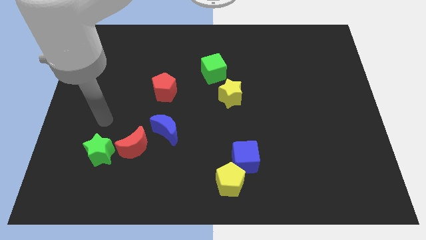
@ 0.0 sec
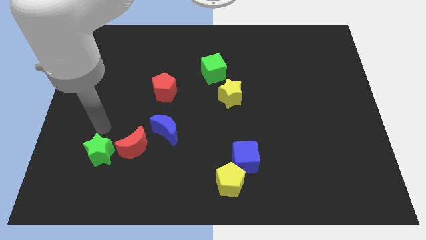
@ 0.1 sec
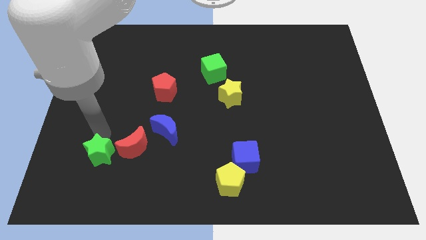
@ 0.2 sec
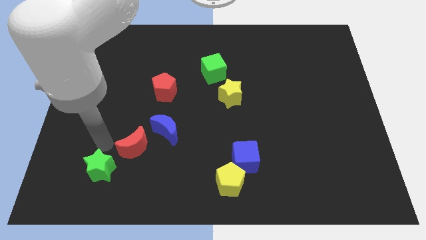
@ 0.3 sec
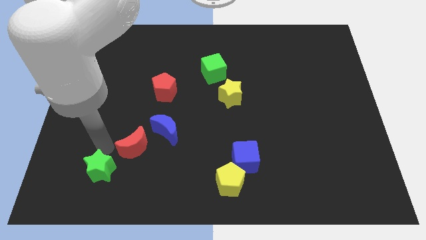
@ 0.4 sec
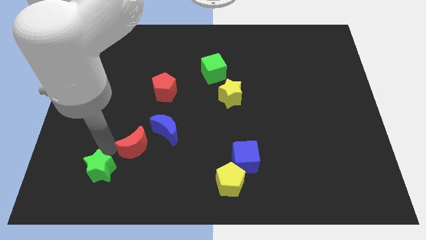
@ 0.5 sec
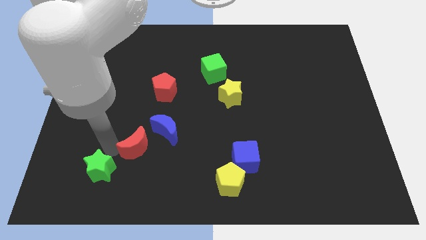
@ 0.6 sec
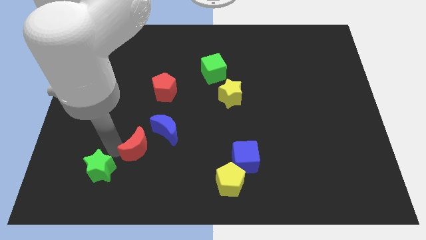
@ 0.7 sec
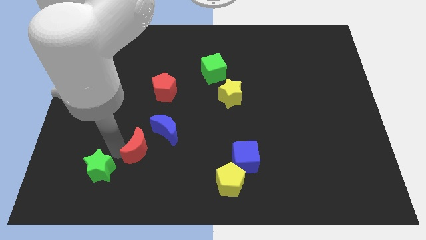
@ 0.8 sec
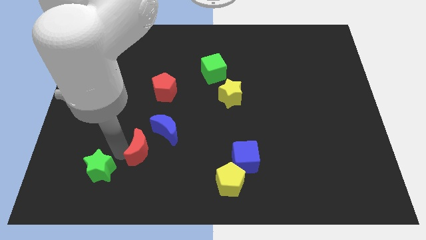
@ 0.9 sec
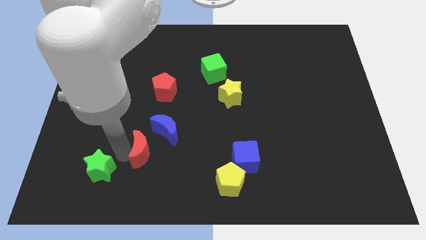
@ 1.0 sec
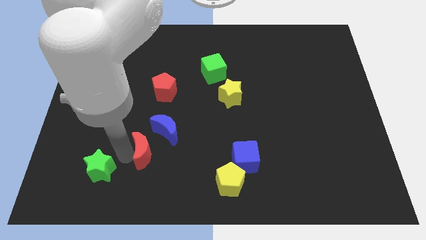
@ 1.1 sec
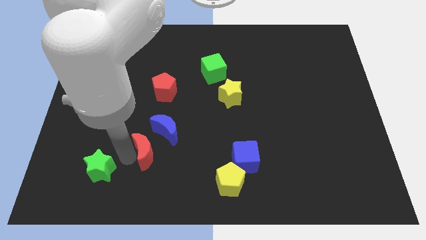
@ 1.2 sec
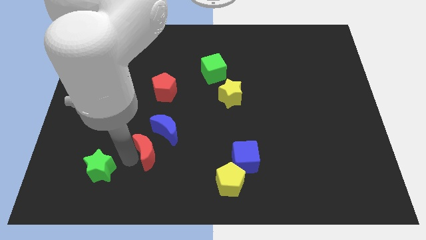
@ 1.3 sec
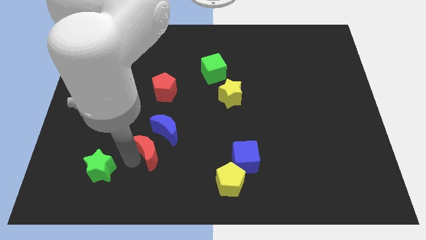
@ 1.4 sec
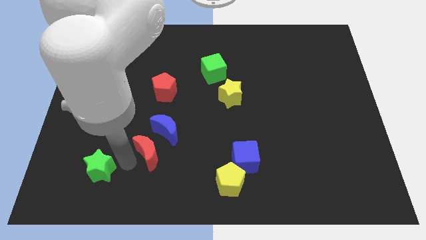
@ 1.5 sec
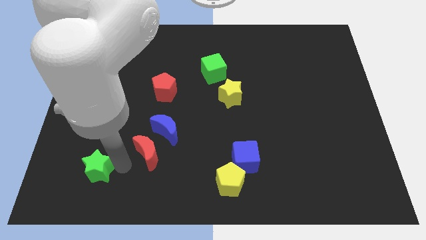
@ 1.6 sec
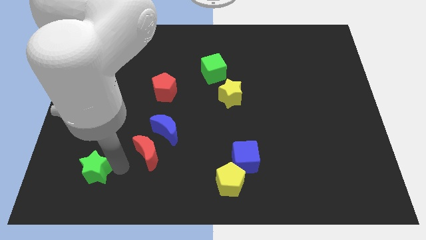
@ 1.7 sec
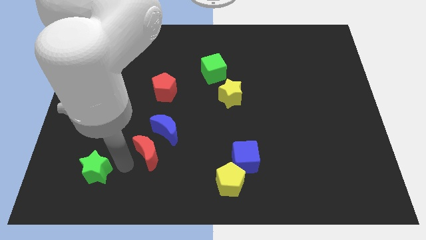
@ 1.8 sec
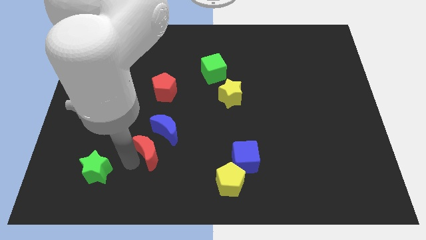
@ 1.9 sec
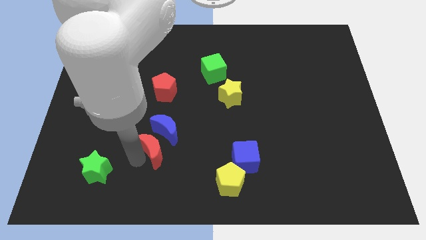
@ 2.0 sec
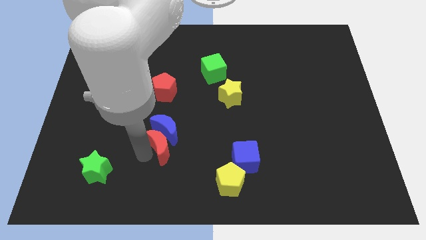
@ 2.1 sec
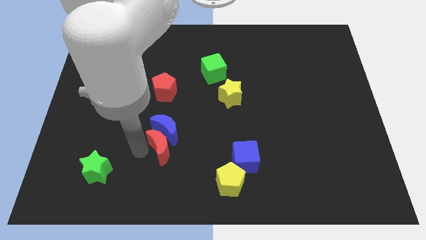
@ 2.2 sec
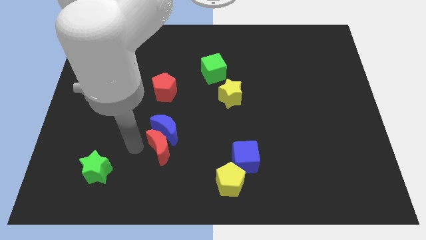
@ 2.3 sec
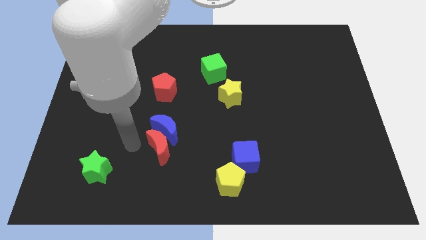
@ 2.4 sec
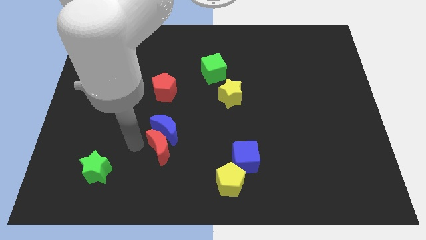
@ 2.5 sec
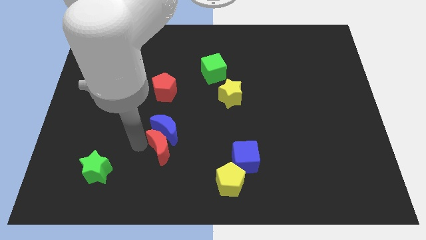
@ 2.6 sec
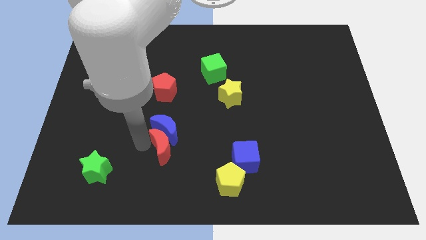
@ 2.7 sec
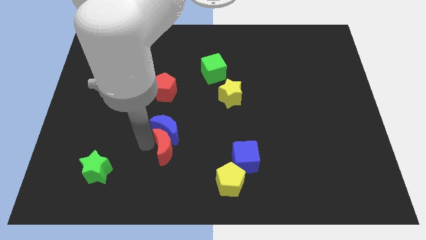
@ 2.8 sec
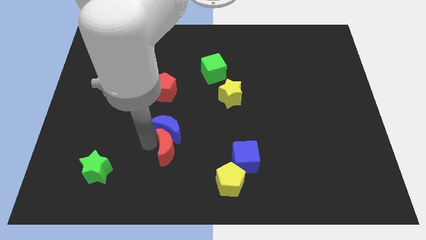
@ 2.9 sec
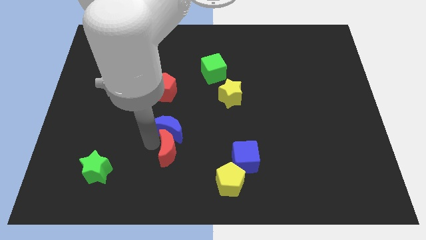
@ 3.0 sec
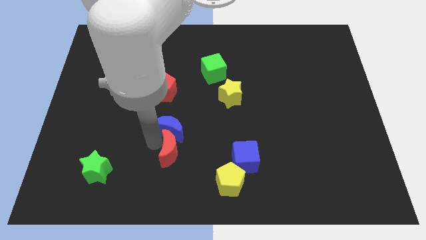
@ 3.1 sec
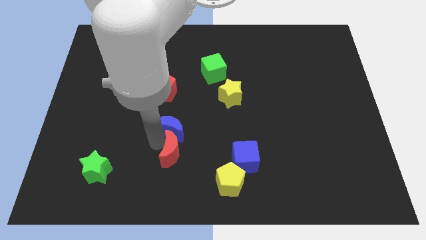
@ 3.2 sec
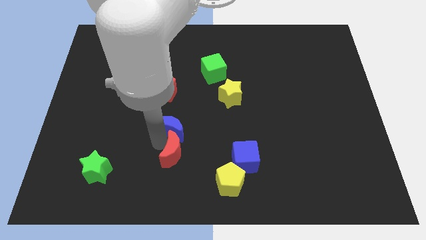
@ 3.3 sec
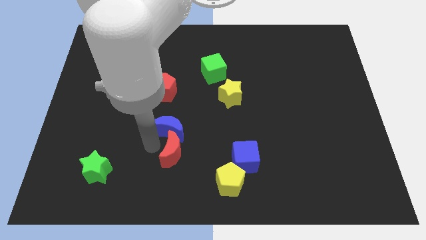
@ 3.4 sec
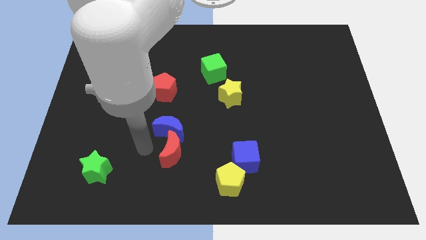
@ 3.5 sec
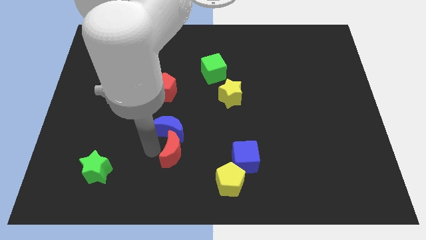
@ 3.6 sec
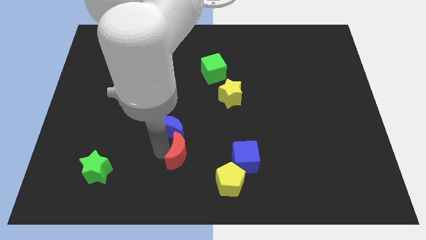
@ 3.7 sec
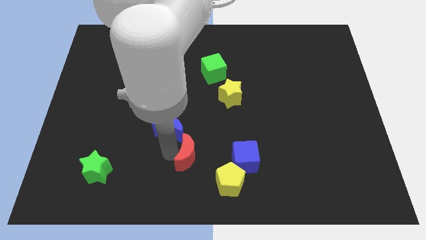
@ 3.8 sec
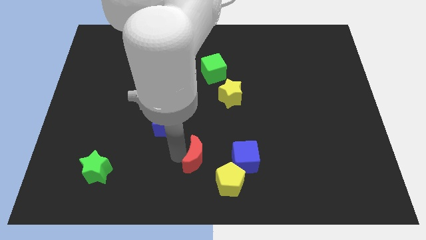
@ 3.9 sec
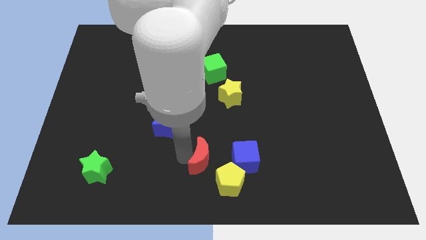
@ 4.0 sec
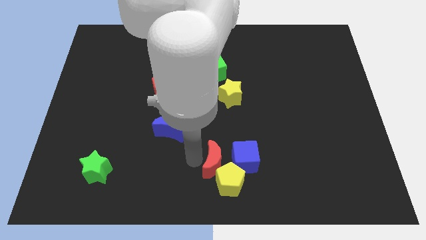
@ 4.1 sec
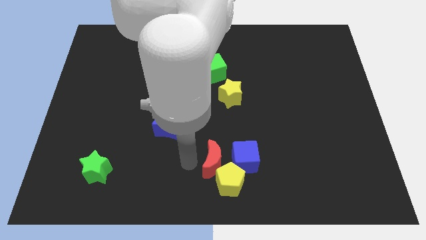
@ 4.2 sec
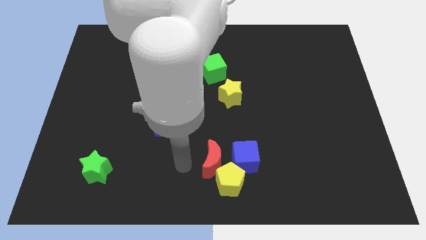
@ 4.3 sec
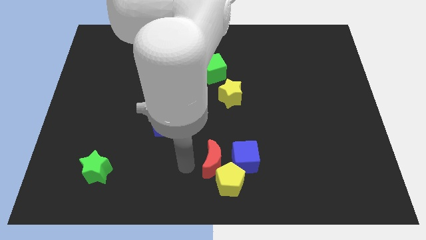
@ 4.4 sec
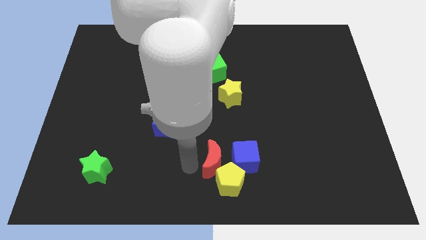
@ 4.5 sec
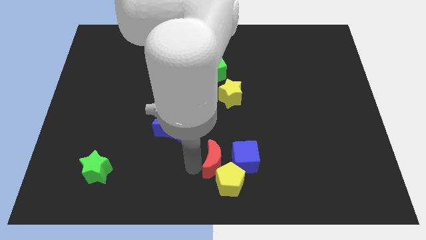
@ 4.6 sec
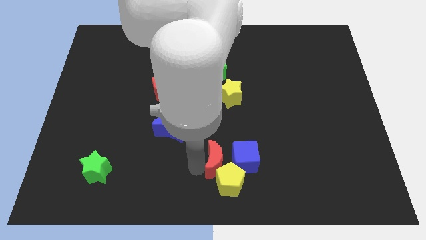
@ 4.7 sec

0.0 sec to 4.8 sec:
slide the red moon to the blue cube

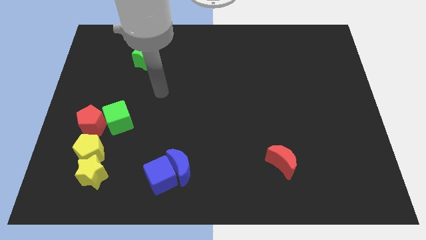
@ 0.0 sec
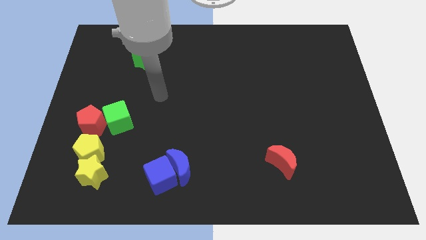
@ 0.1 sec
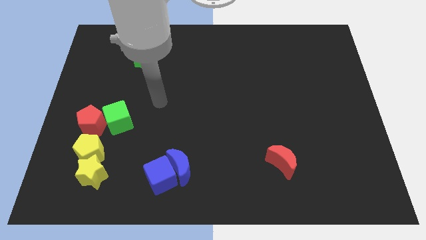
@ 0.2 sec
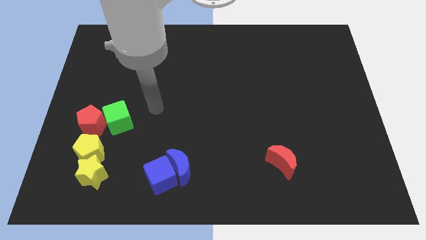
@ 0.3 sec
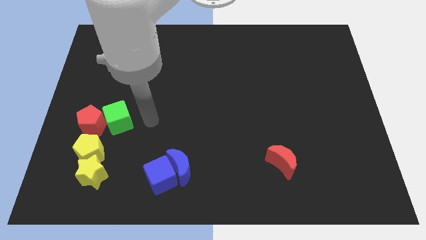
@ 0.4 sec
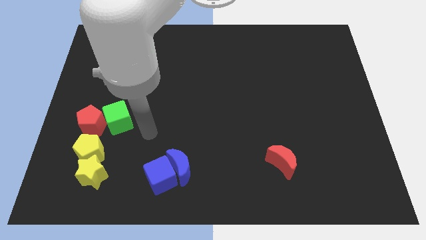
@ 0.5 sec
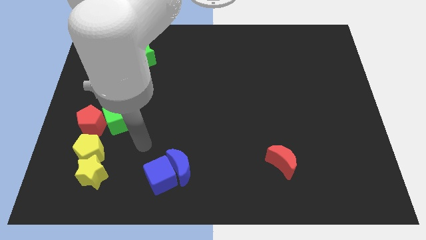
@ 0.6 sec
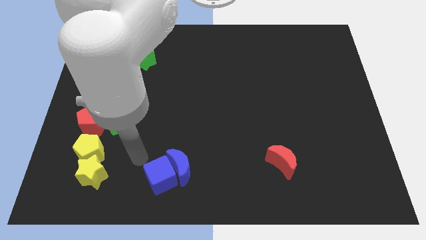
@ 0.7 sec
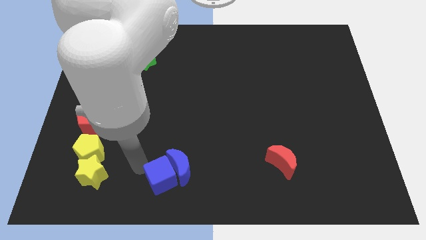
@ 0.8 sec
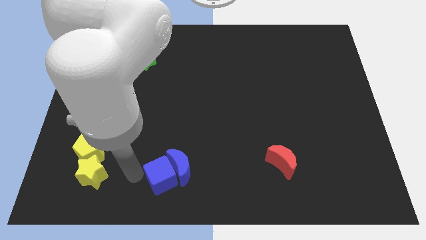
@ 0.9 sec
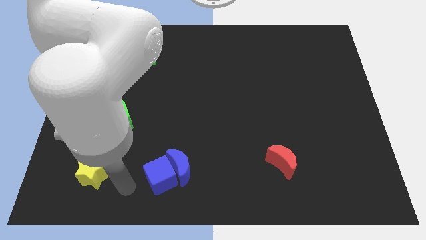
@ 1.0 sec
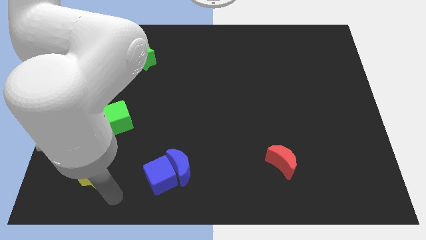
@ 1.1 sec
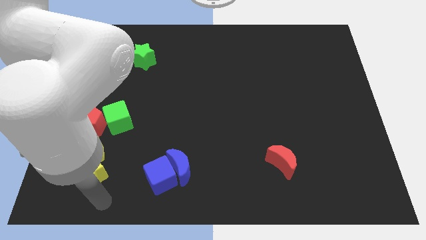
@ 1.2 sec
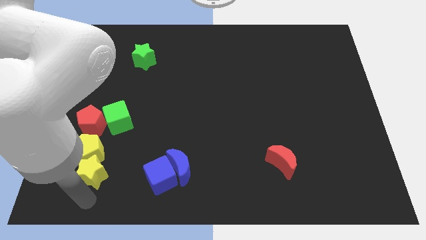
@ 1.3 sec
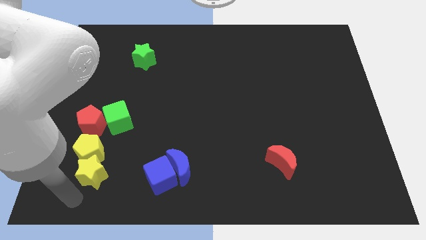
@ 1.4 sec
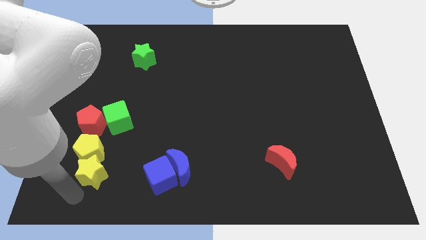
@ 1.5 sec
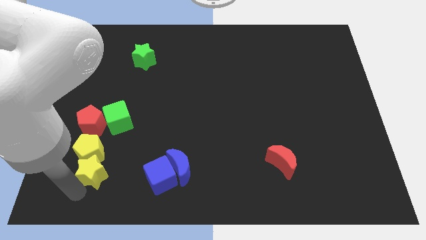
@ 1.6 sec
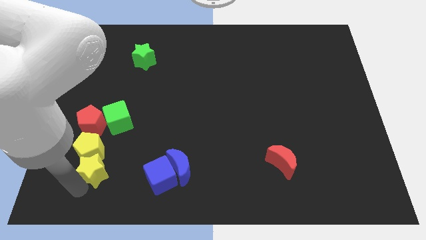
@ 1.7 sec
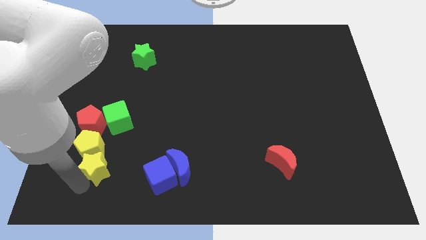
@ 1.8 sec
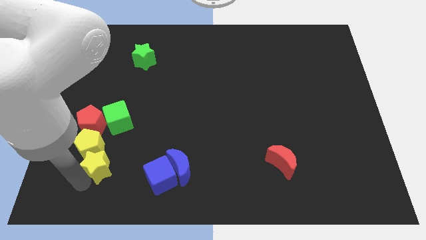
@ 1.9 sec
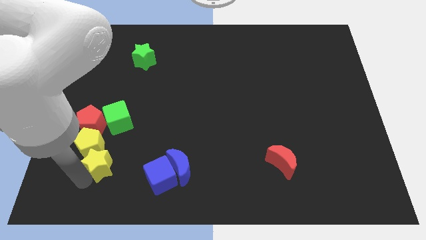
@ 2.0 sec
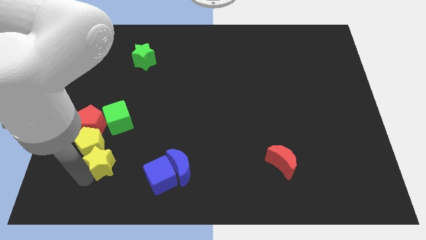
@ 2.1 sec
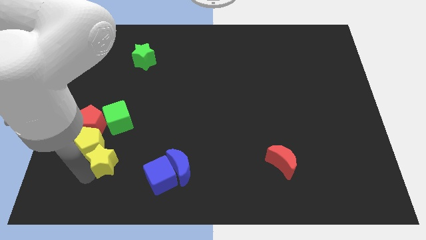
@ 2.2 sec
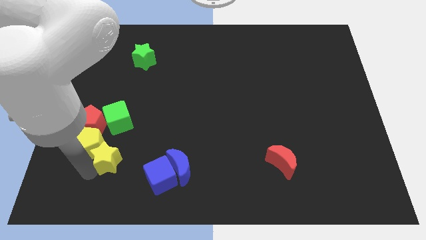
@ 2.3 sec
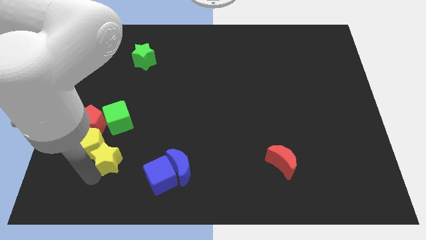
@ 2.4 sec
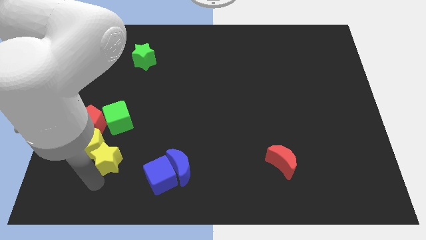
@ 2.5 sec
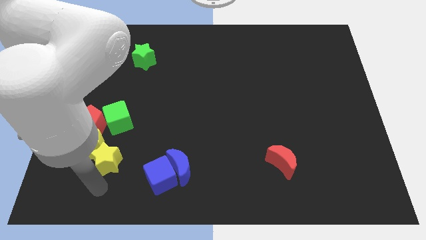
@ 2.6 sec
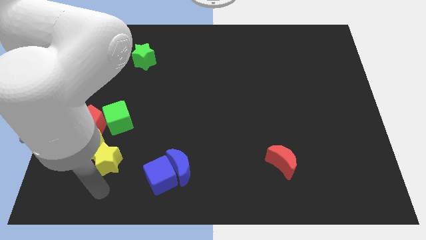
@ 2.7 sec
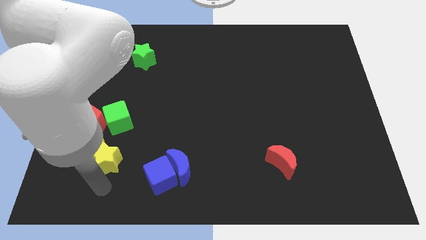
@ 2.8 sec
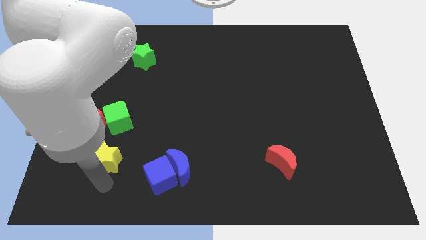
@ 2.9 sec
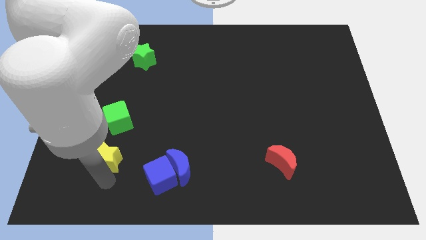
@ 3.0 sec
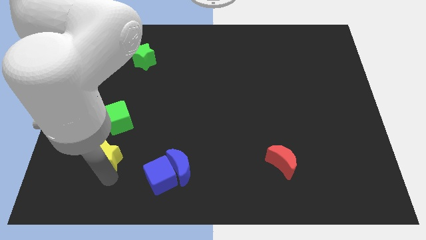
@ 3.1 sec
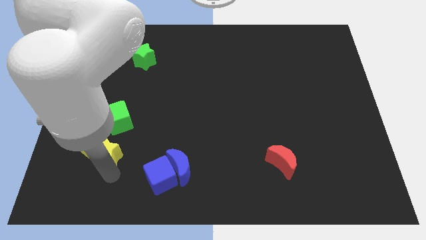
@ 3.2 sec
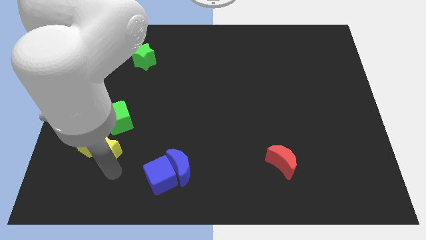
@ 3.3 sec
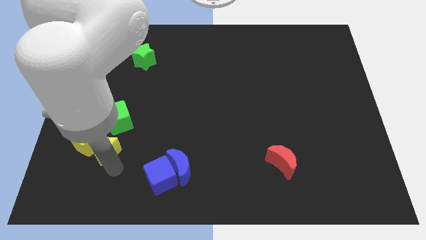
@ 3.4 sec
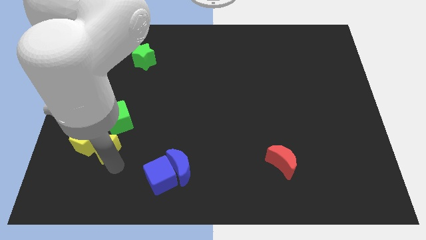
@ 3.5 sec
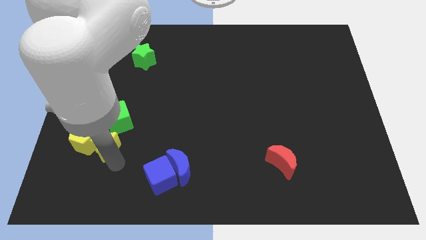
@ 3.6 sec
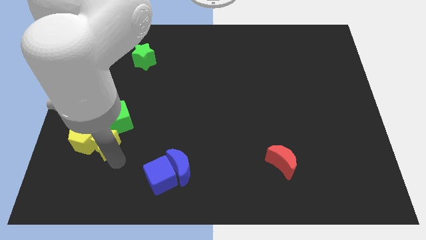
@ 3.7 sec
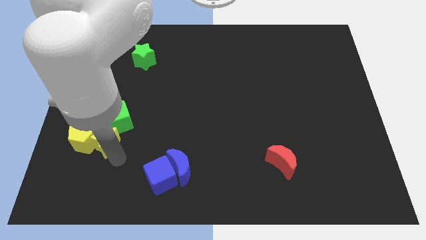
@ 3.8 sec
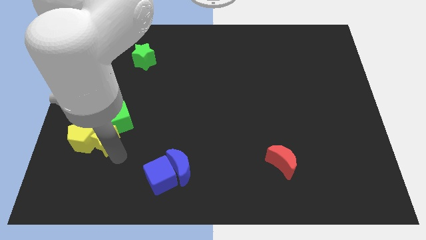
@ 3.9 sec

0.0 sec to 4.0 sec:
move the yellow star close to the green cube
